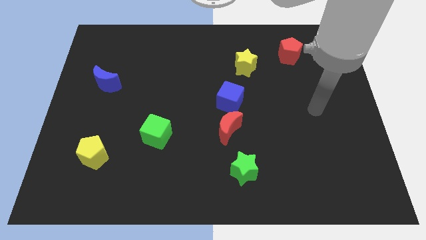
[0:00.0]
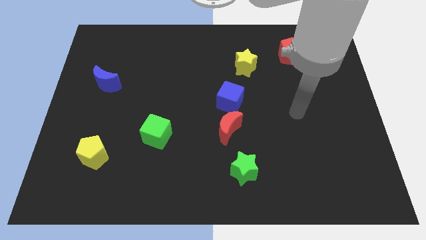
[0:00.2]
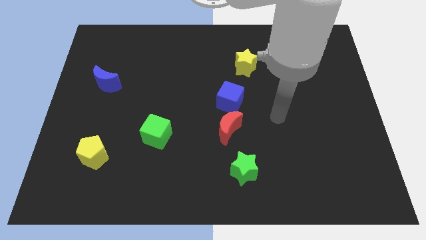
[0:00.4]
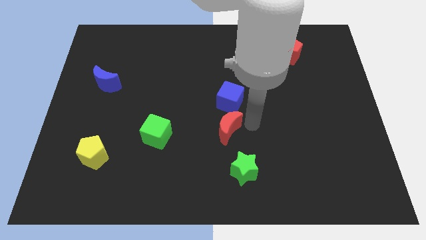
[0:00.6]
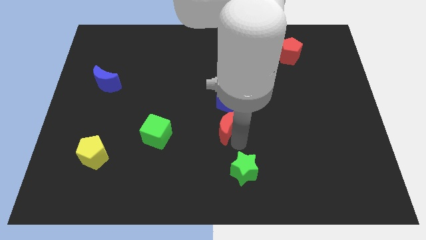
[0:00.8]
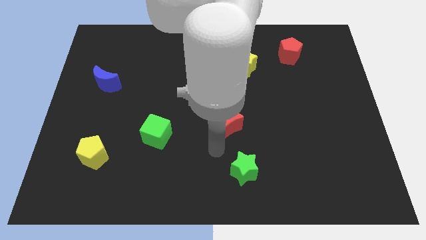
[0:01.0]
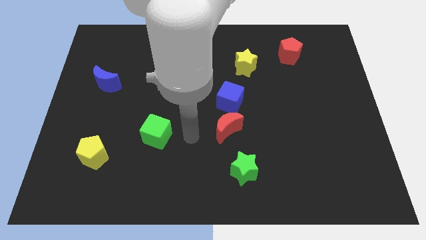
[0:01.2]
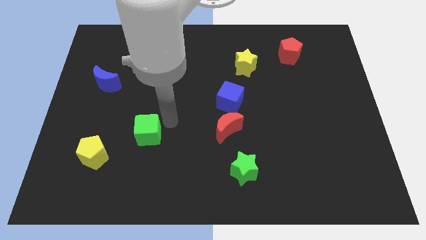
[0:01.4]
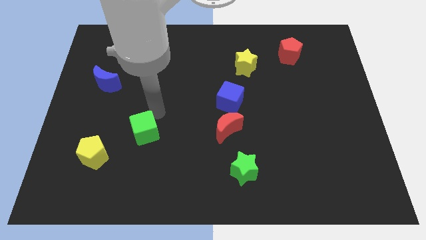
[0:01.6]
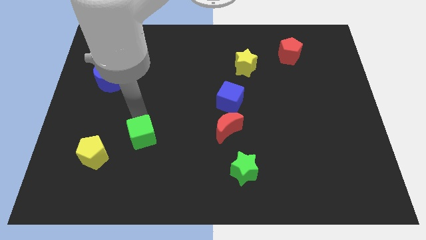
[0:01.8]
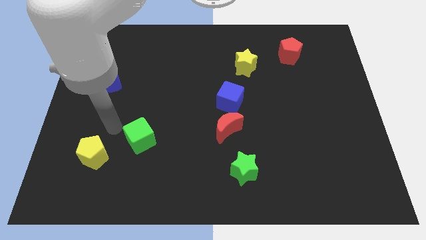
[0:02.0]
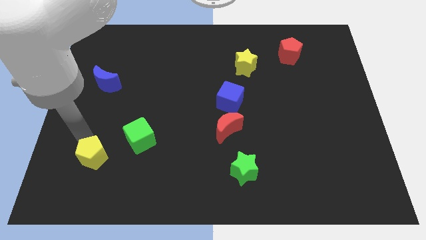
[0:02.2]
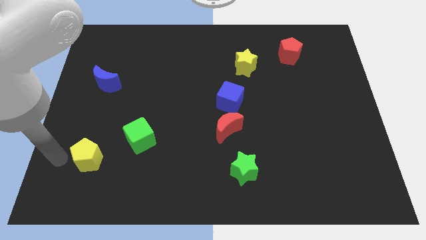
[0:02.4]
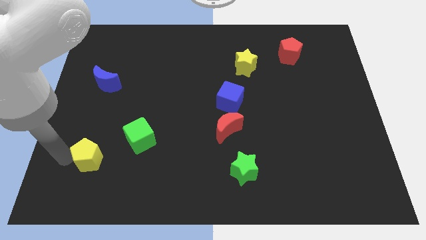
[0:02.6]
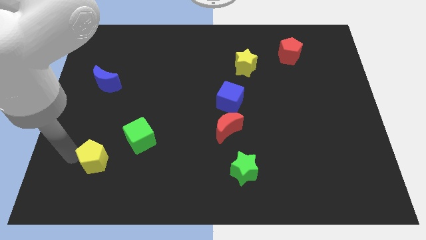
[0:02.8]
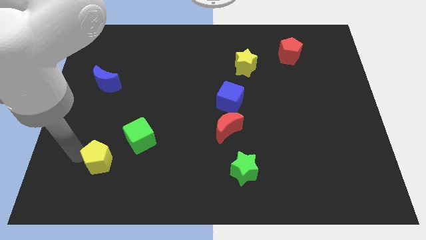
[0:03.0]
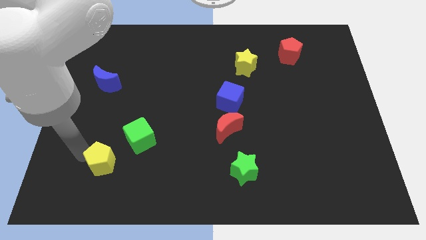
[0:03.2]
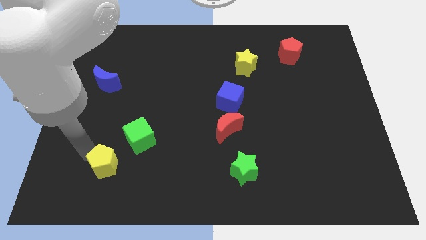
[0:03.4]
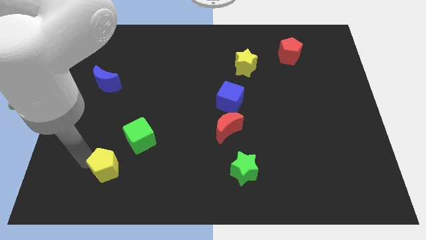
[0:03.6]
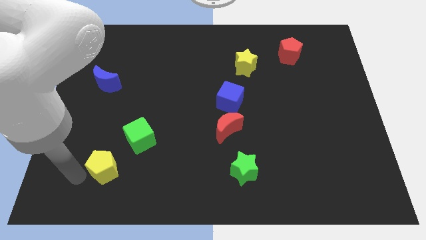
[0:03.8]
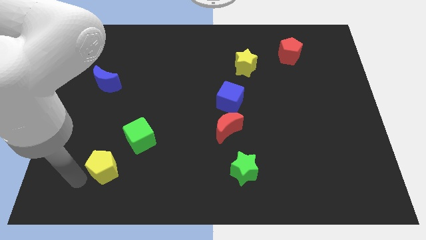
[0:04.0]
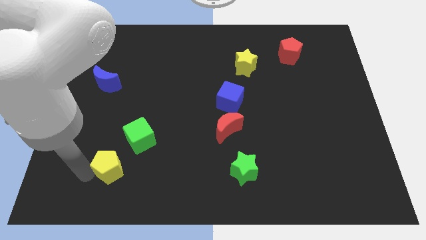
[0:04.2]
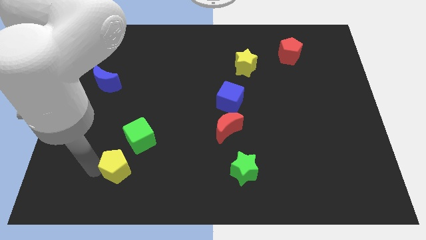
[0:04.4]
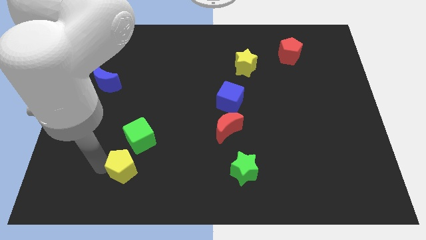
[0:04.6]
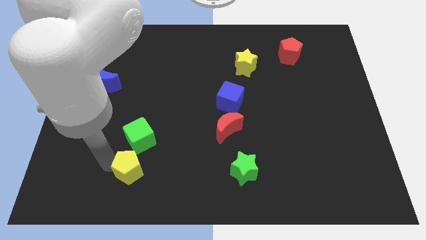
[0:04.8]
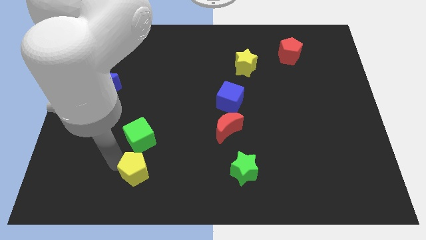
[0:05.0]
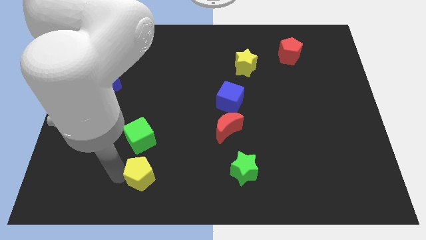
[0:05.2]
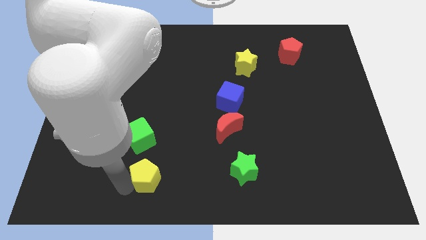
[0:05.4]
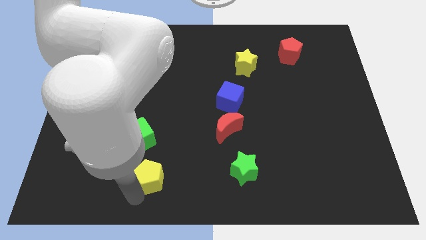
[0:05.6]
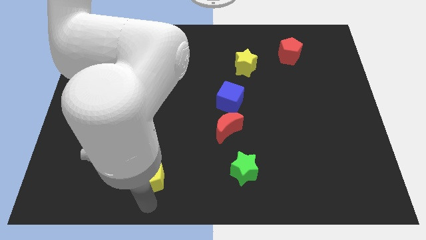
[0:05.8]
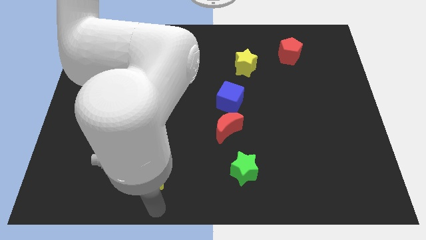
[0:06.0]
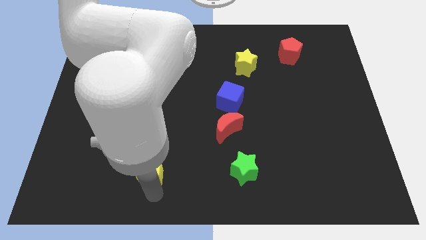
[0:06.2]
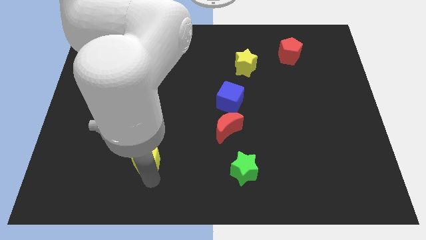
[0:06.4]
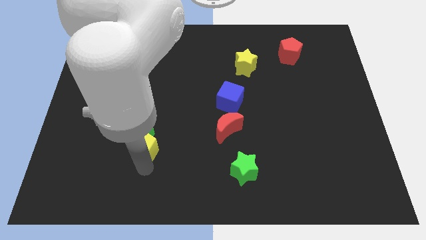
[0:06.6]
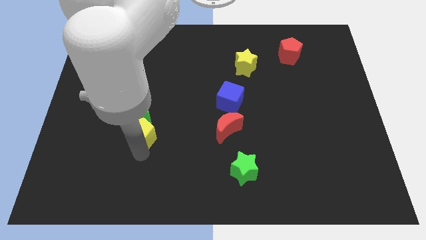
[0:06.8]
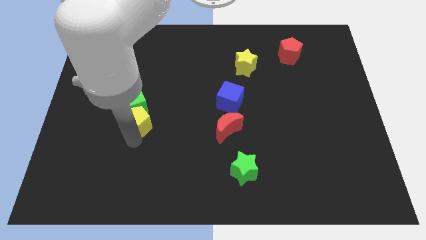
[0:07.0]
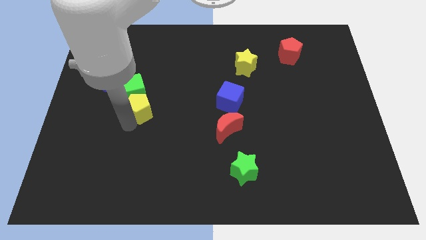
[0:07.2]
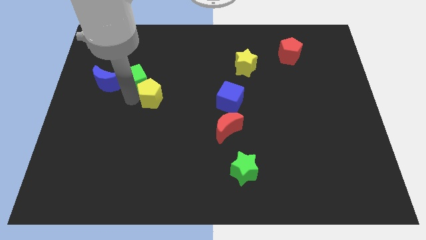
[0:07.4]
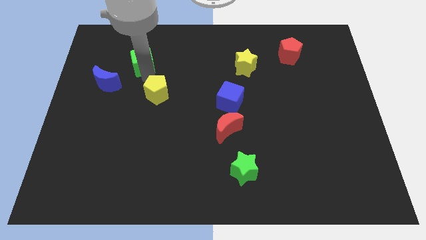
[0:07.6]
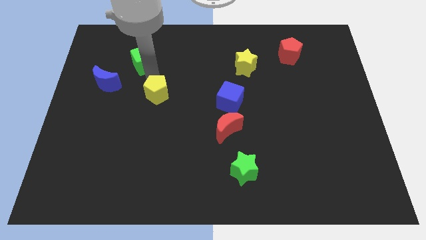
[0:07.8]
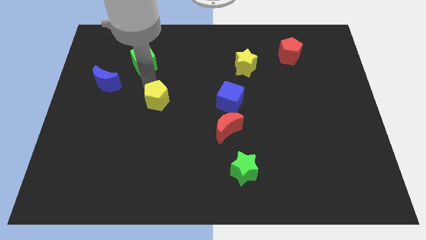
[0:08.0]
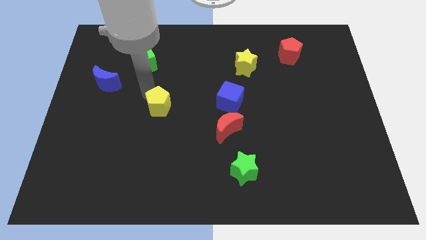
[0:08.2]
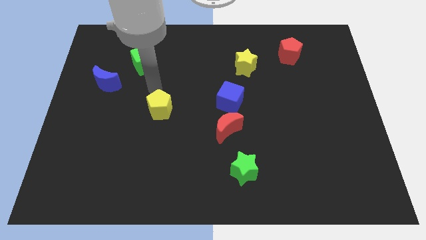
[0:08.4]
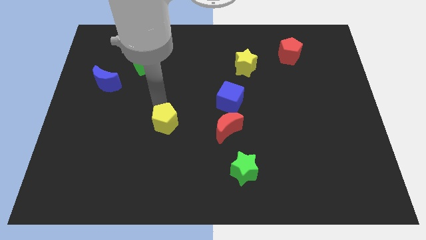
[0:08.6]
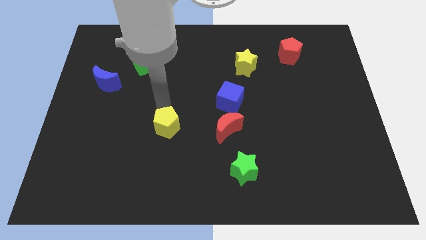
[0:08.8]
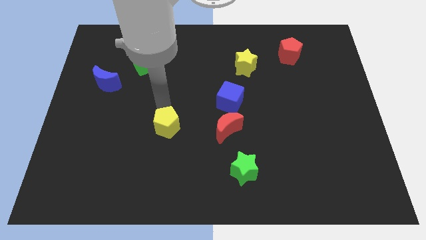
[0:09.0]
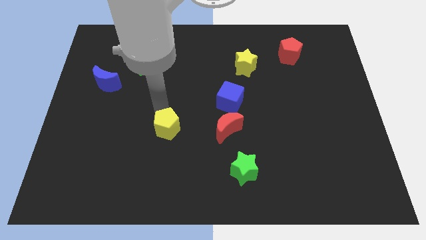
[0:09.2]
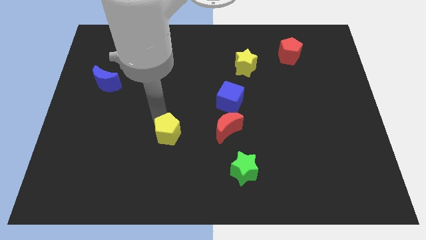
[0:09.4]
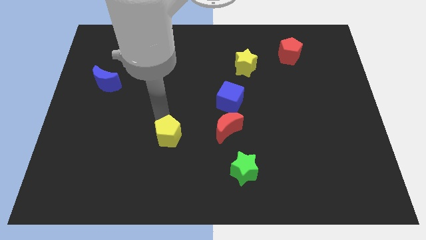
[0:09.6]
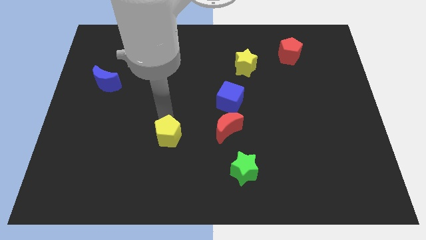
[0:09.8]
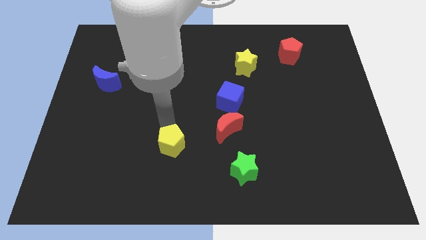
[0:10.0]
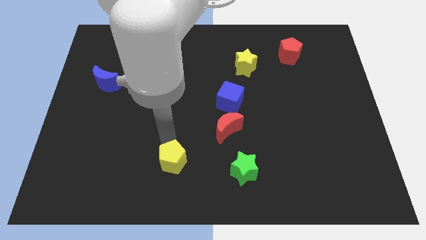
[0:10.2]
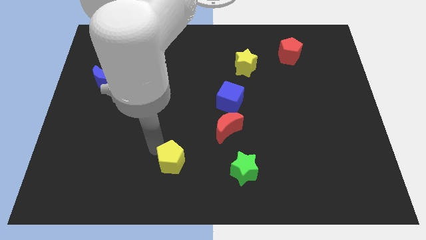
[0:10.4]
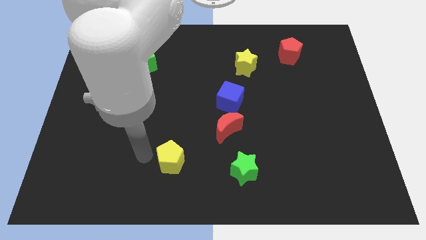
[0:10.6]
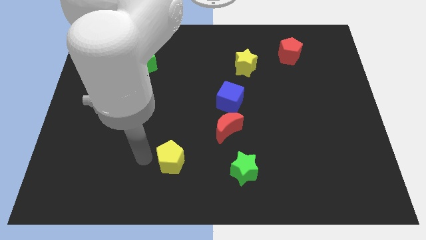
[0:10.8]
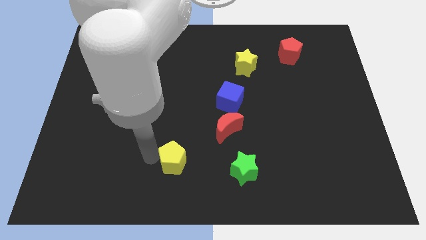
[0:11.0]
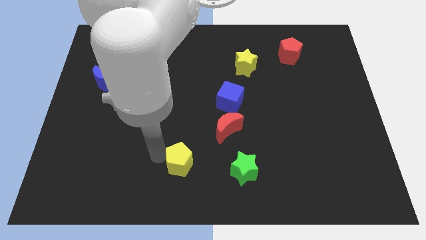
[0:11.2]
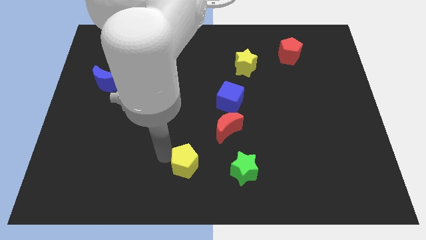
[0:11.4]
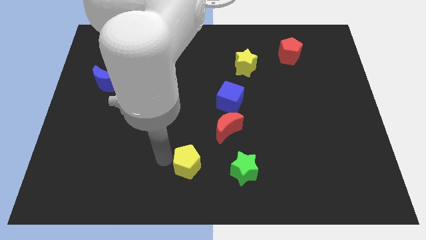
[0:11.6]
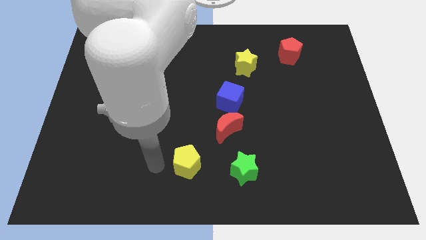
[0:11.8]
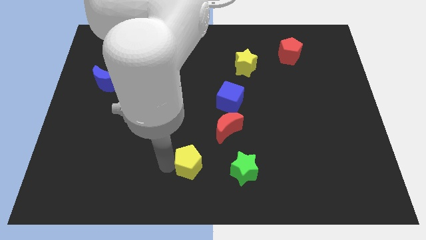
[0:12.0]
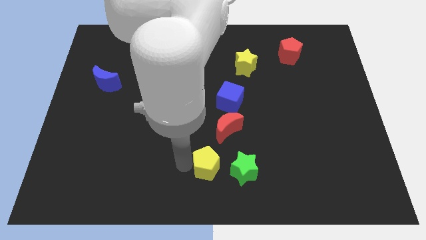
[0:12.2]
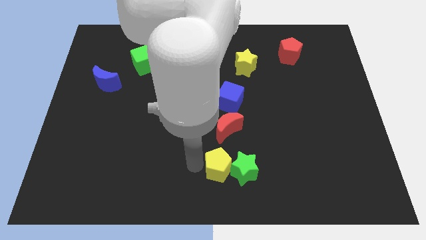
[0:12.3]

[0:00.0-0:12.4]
slide the yellow pentagon close to the green star

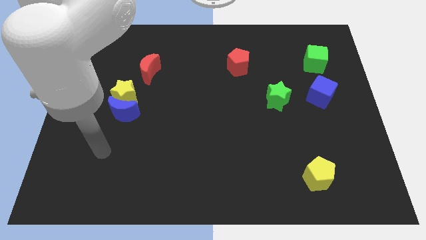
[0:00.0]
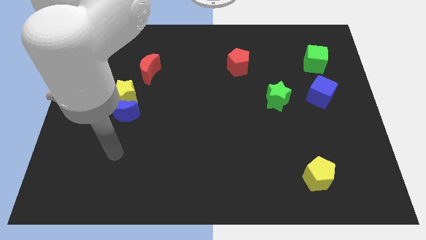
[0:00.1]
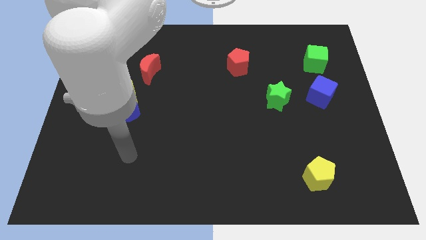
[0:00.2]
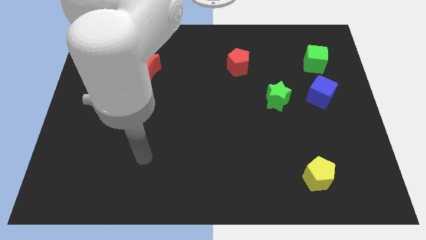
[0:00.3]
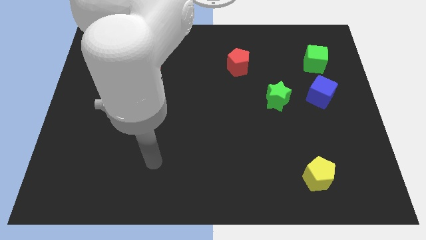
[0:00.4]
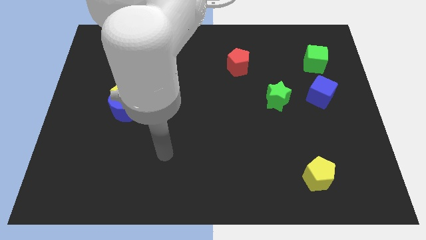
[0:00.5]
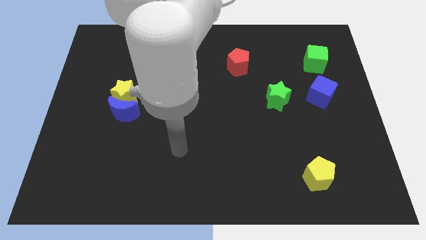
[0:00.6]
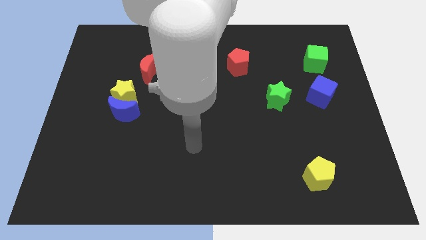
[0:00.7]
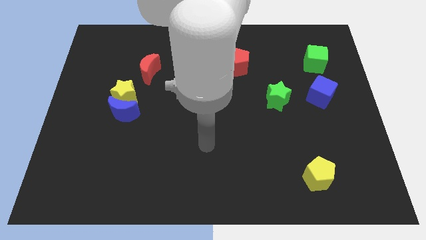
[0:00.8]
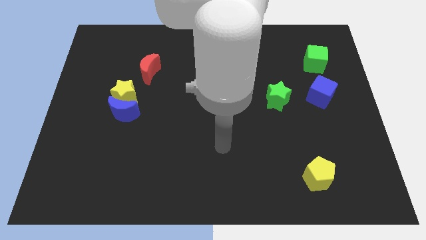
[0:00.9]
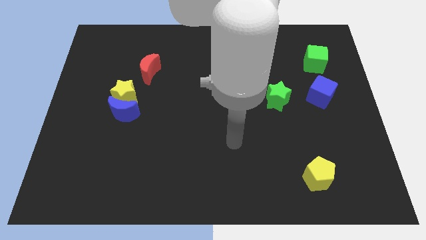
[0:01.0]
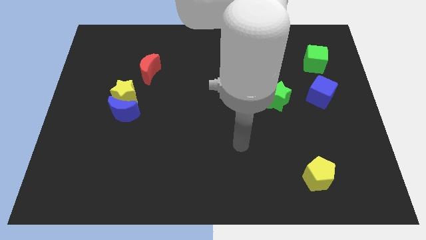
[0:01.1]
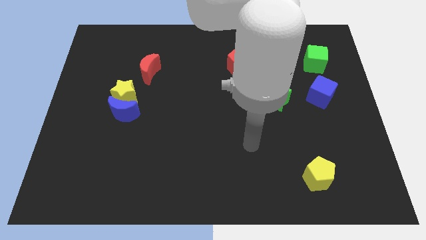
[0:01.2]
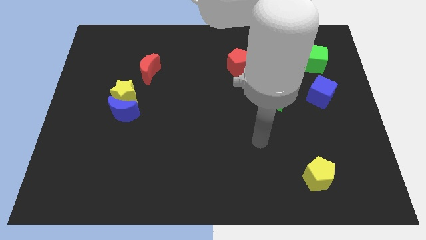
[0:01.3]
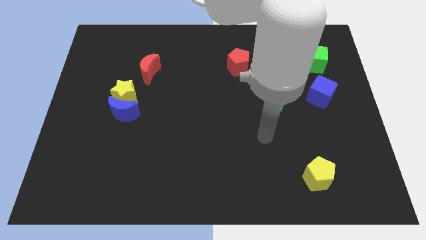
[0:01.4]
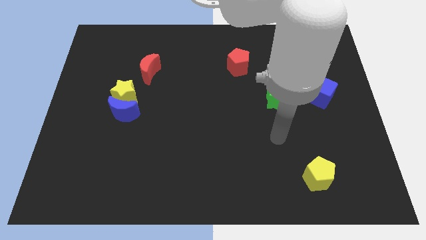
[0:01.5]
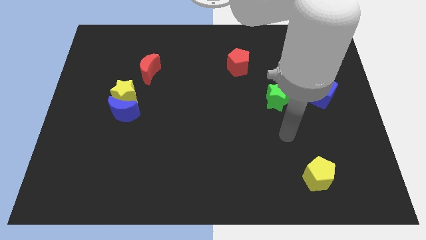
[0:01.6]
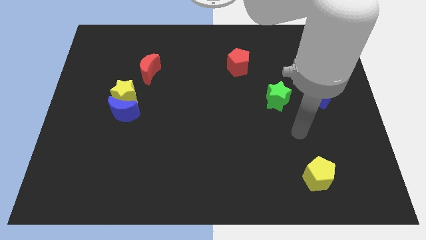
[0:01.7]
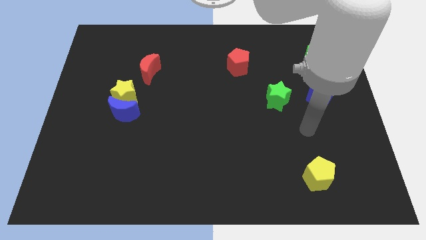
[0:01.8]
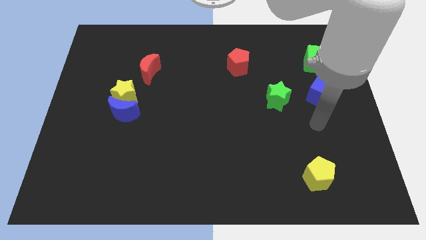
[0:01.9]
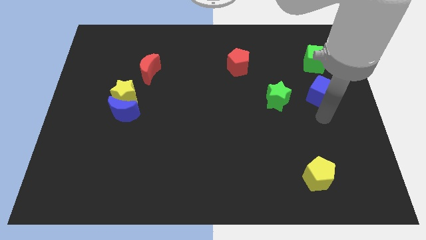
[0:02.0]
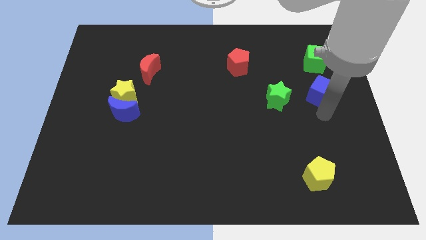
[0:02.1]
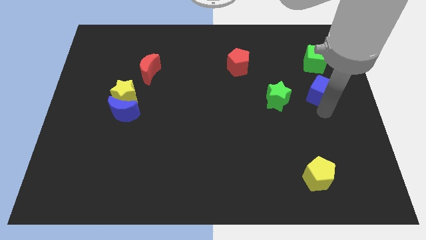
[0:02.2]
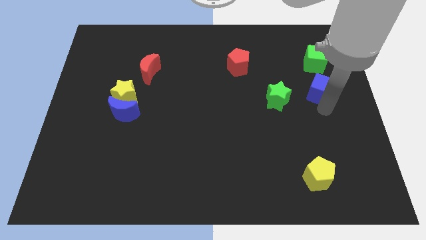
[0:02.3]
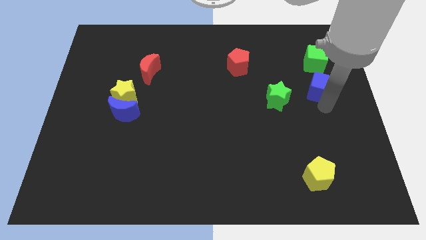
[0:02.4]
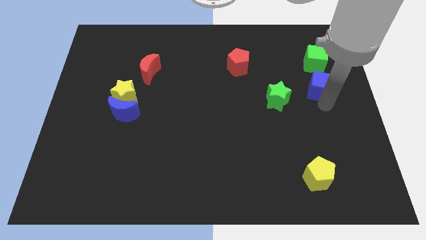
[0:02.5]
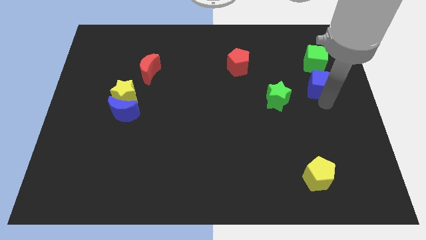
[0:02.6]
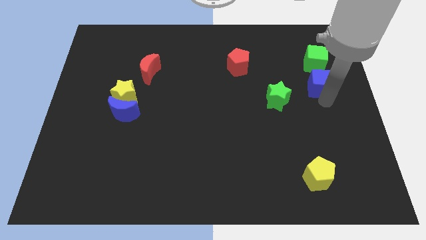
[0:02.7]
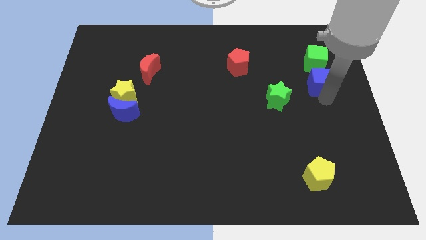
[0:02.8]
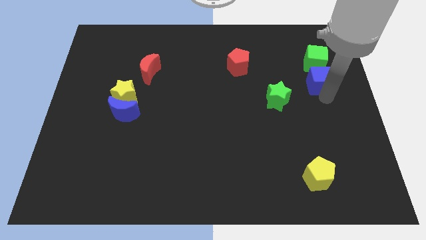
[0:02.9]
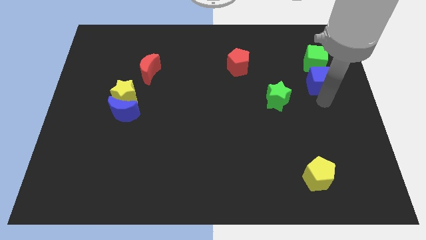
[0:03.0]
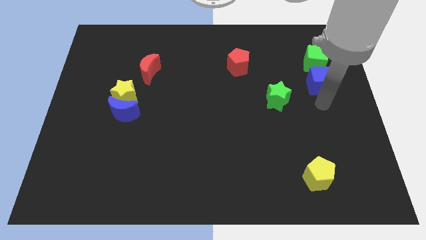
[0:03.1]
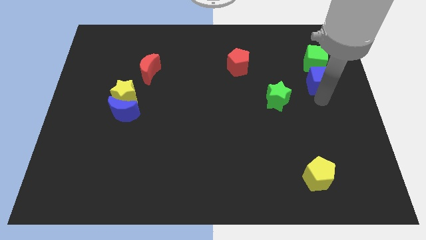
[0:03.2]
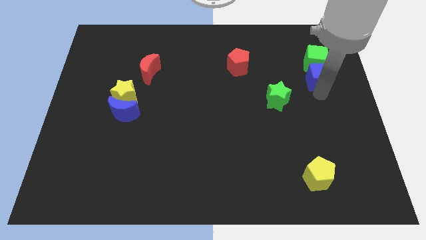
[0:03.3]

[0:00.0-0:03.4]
push the blue cube close to the green cube
